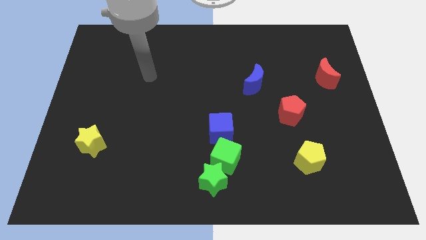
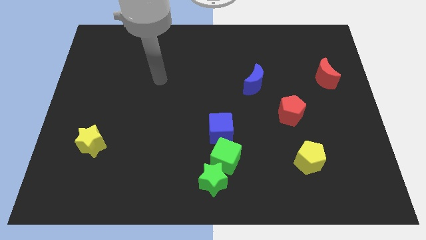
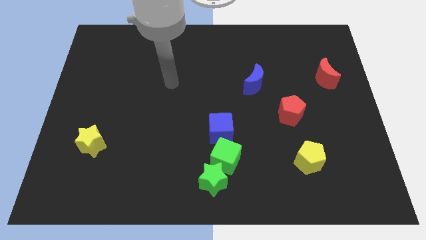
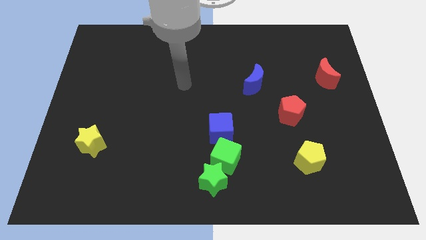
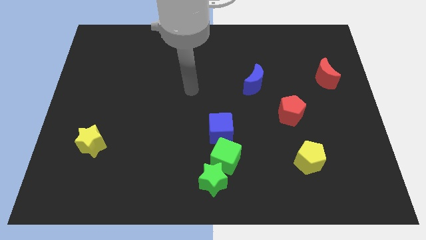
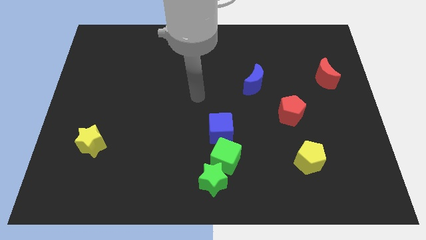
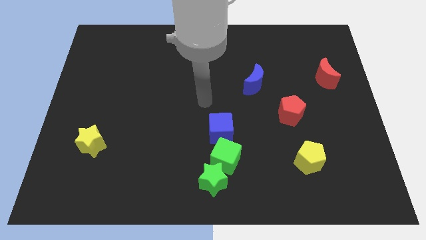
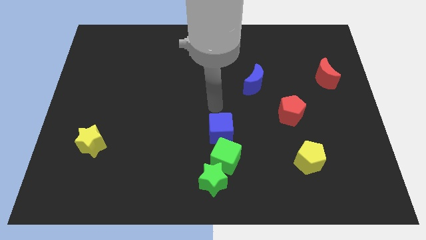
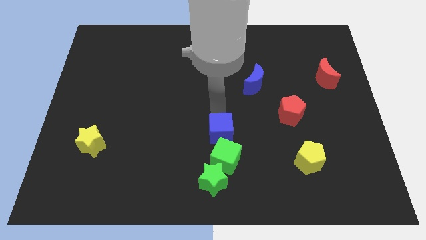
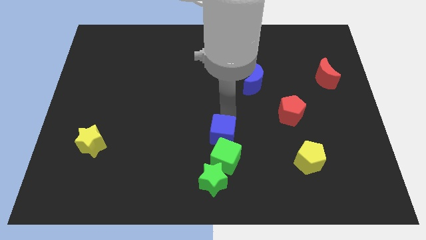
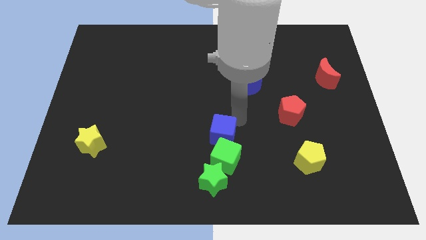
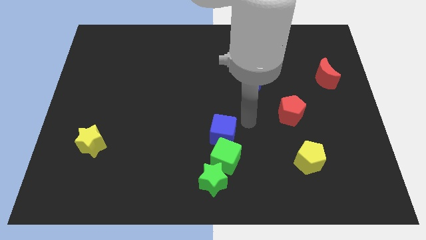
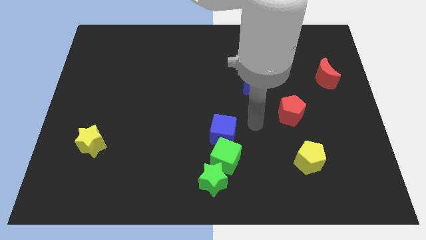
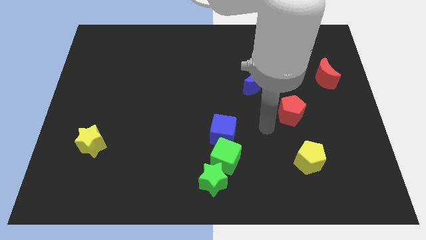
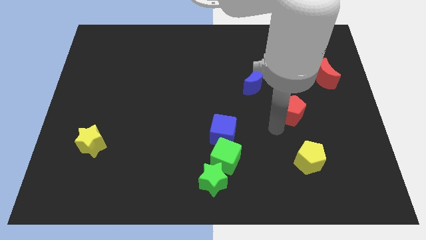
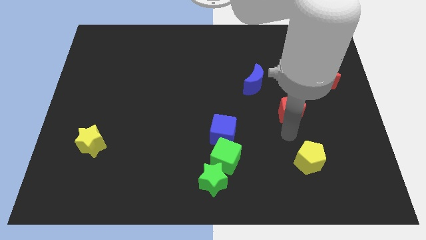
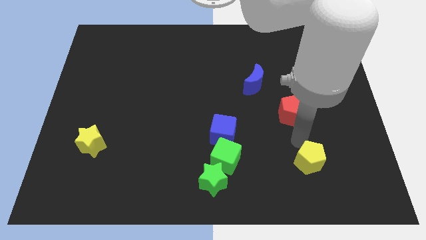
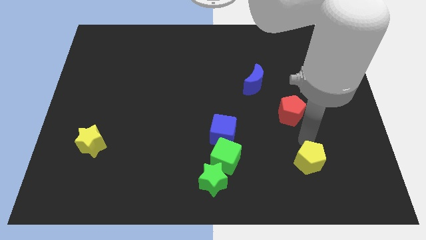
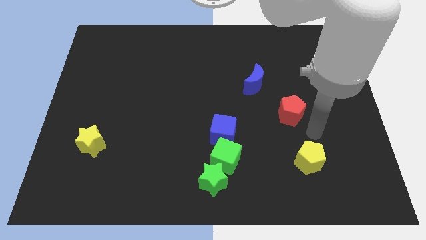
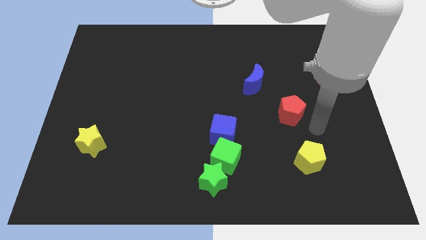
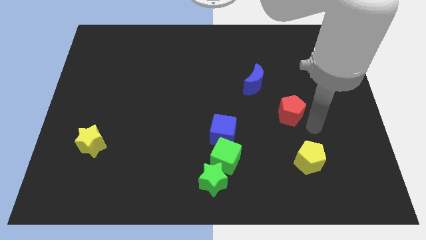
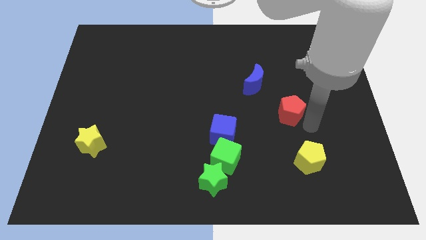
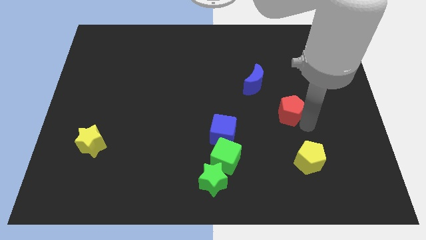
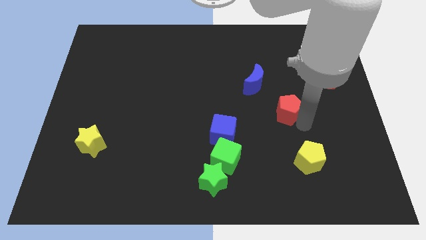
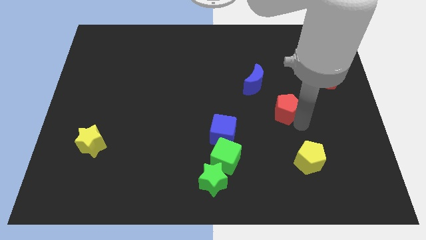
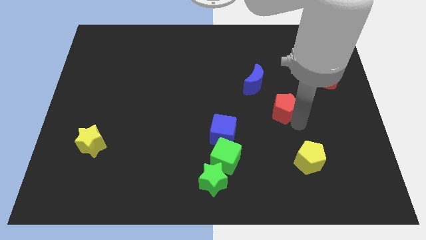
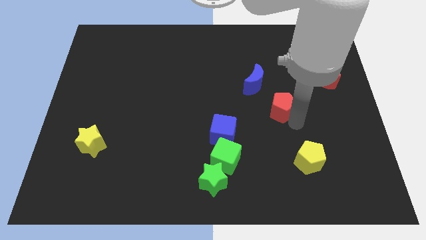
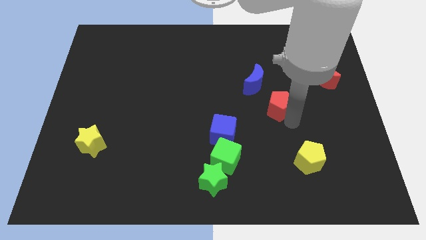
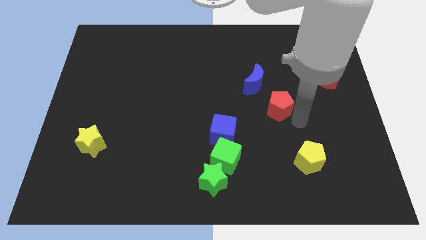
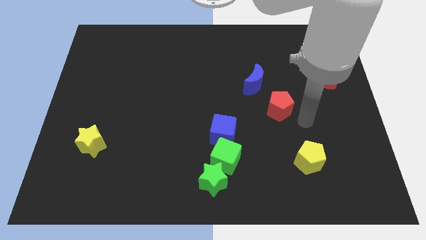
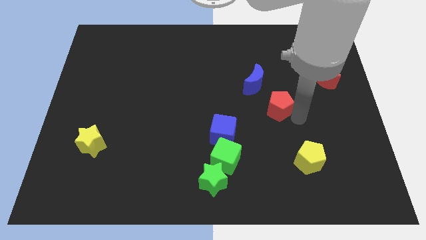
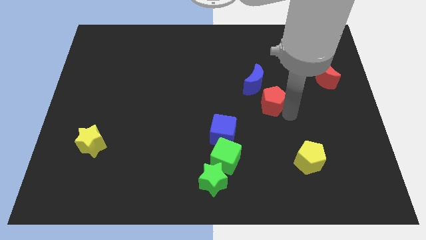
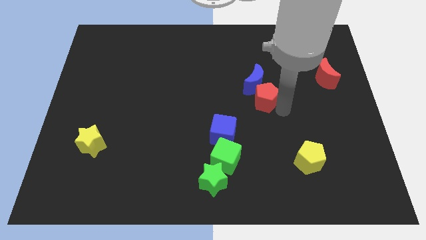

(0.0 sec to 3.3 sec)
push the red pentagon a little diagonally up and to the left

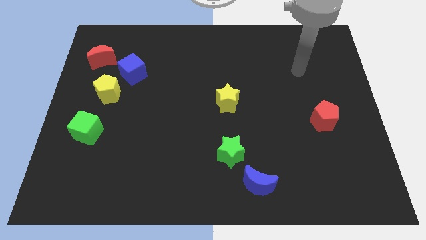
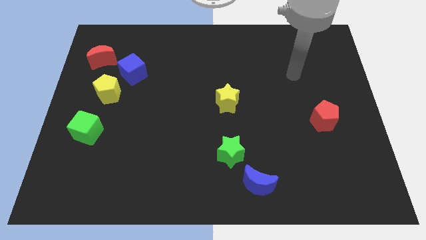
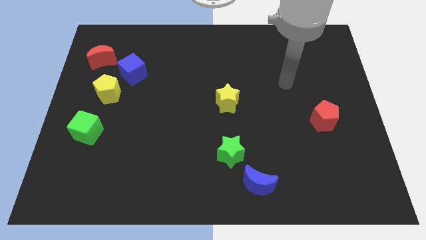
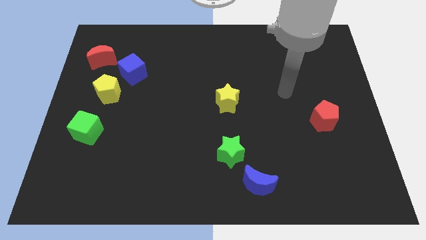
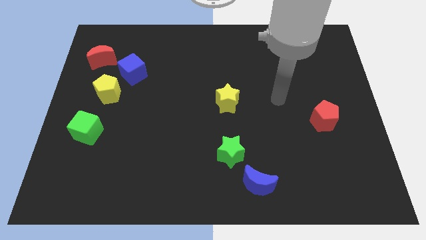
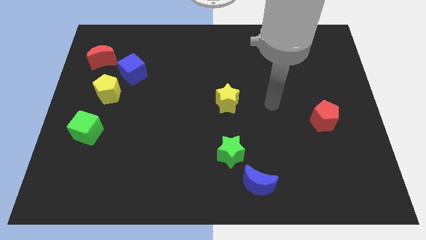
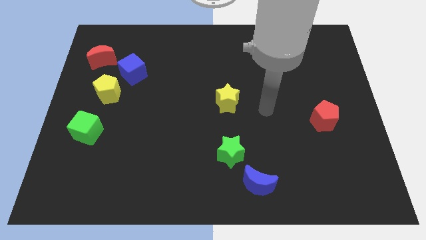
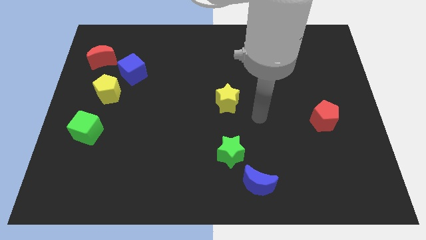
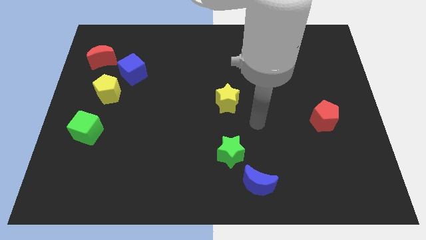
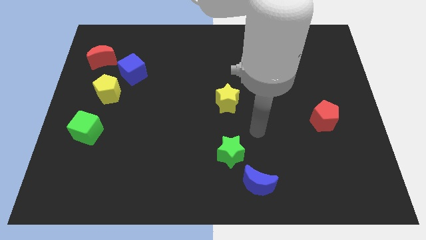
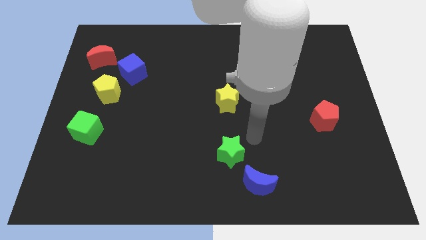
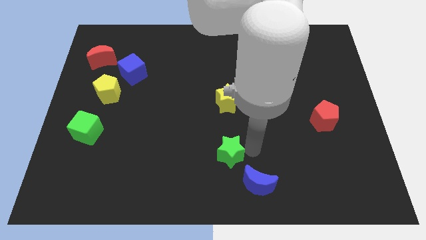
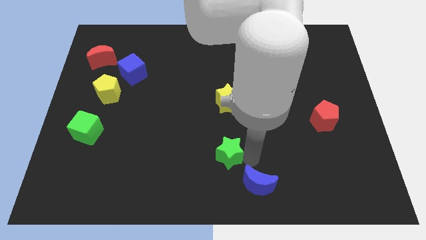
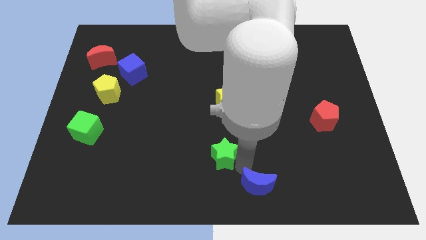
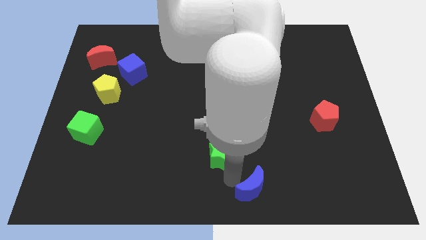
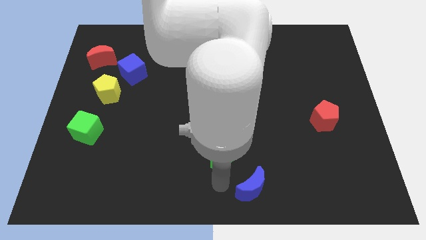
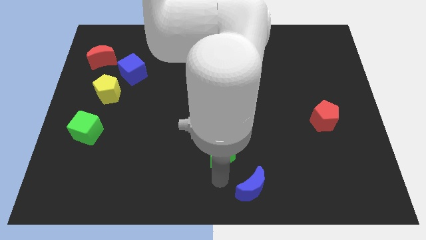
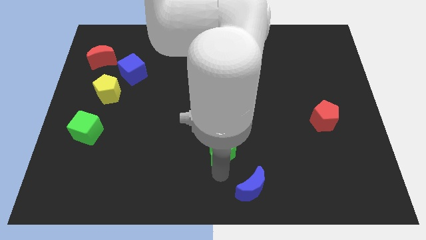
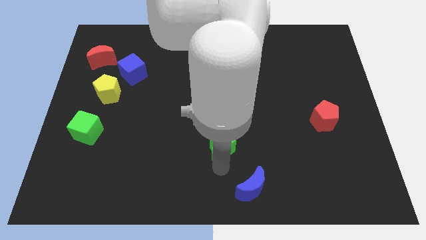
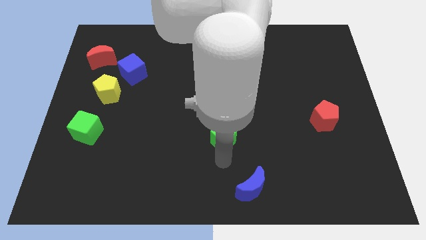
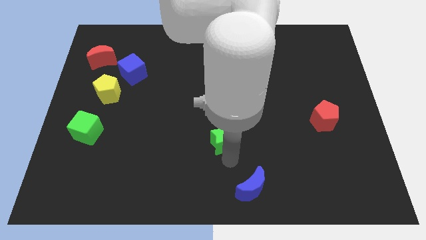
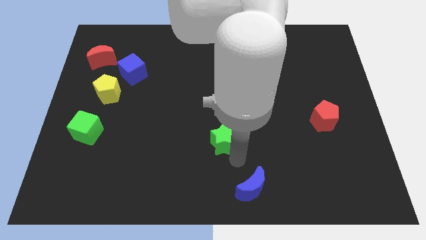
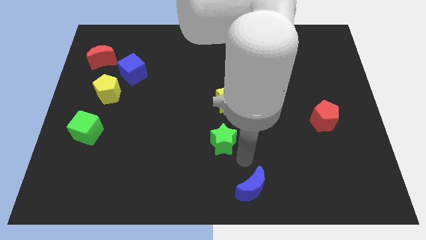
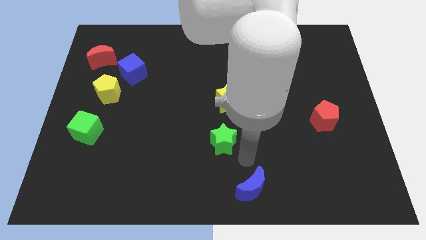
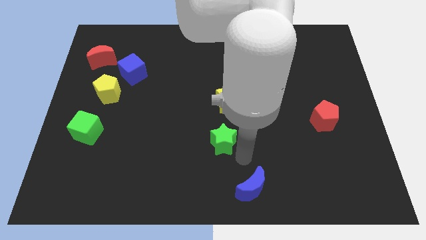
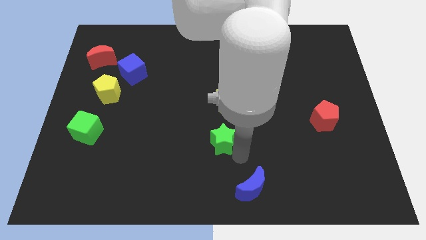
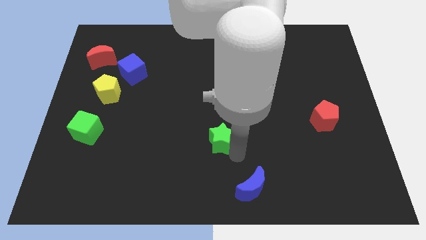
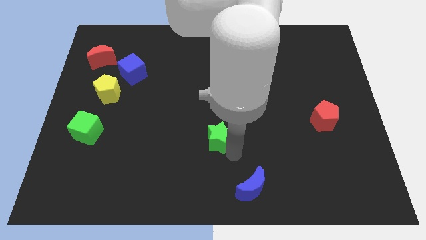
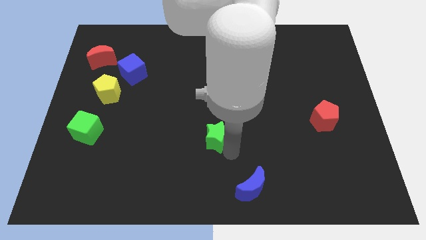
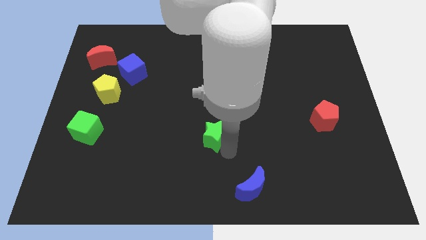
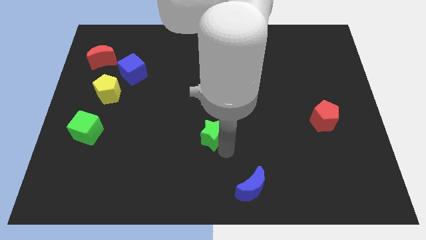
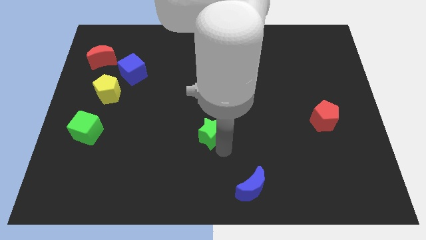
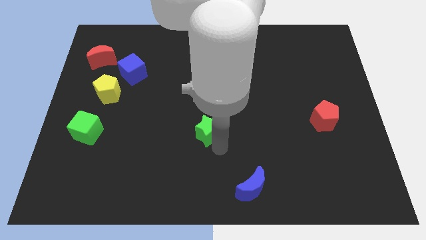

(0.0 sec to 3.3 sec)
slightly move the green star diagonally up and to the left

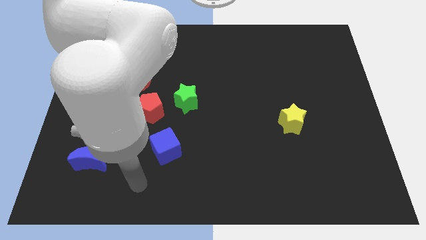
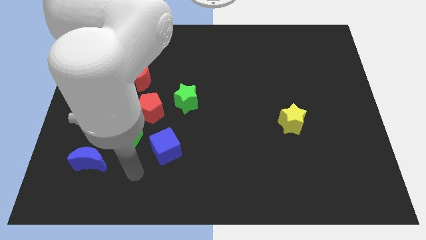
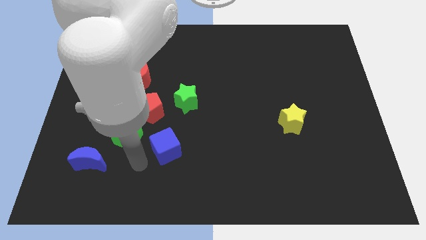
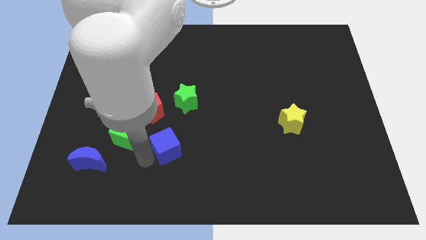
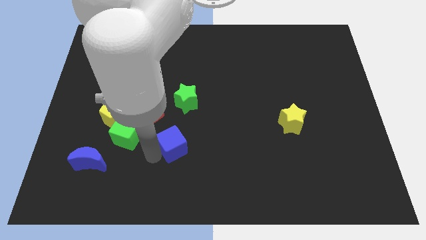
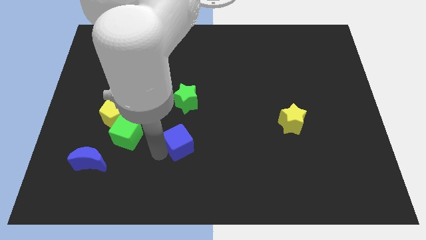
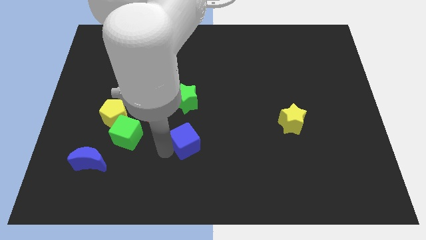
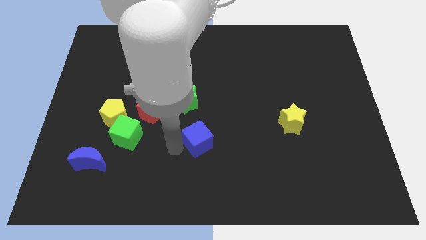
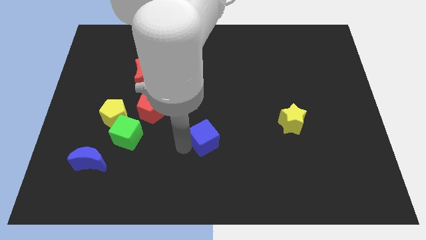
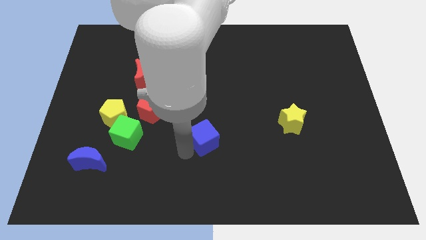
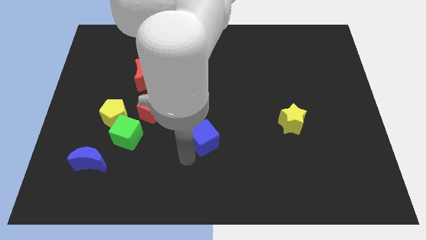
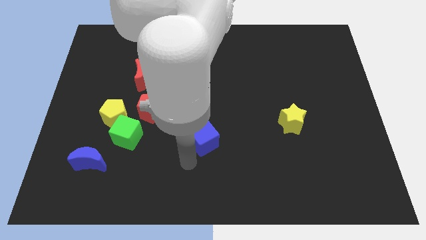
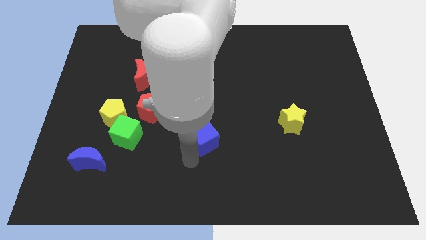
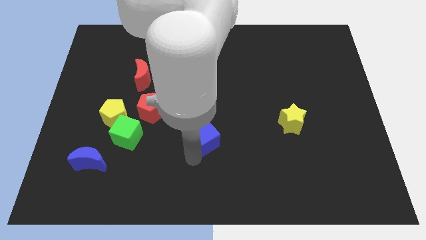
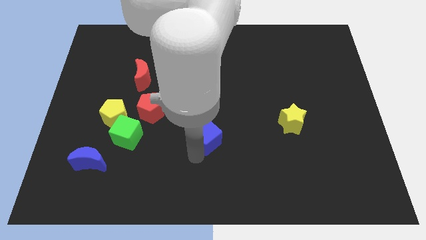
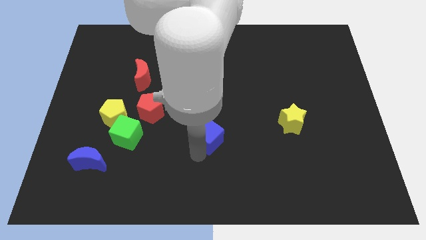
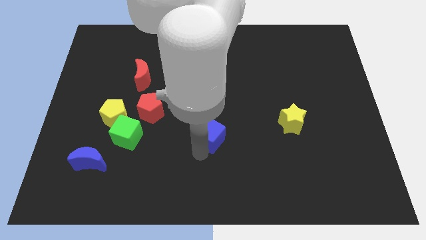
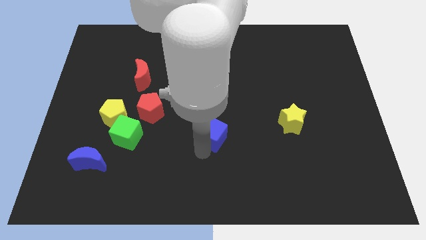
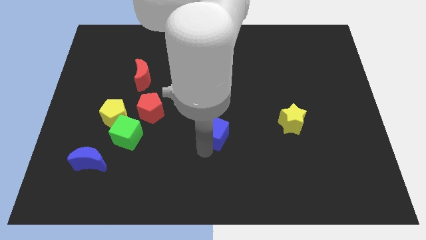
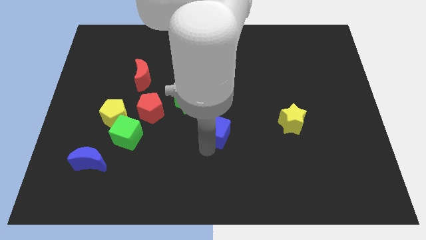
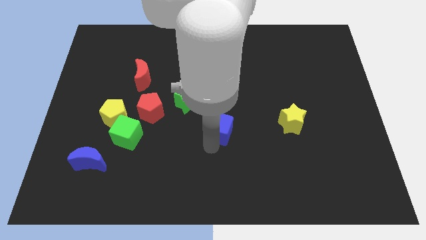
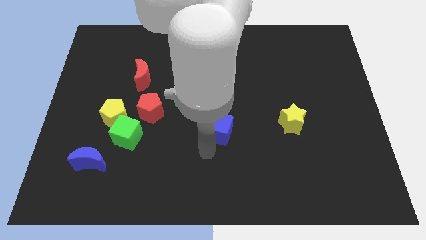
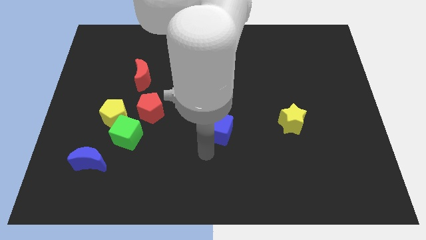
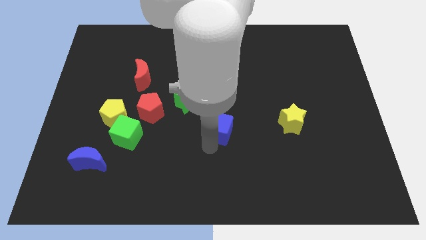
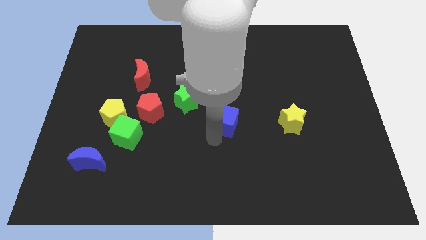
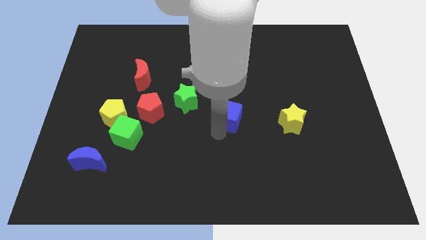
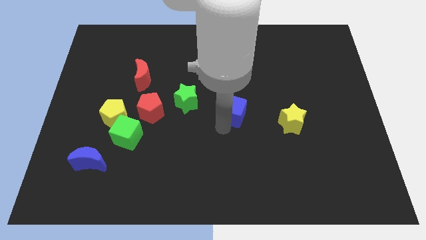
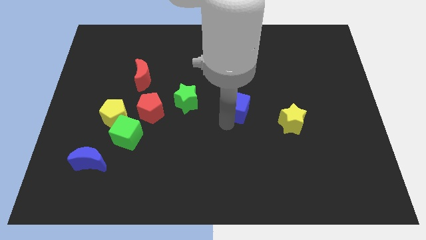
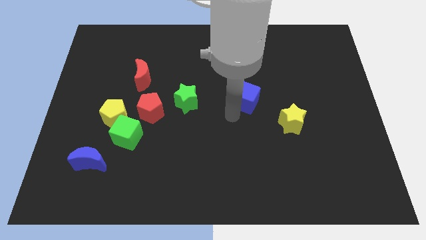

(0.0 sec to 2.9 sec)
slide the blue cube up and to the right
